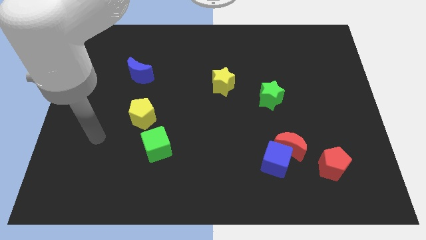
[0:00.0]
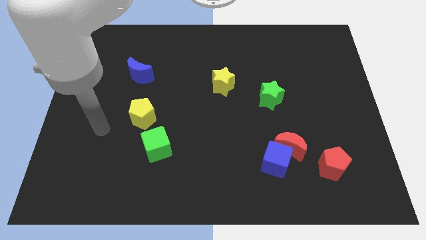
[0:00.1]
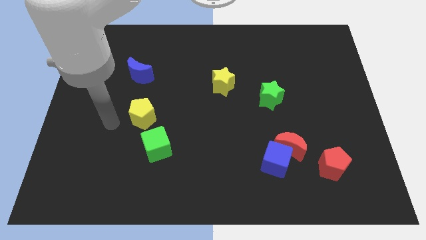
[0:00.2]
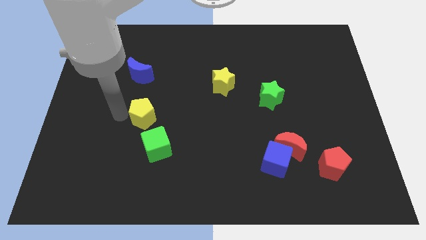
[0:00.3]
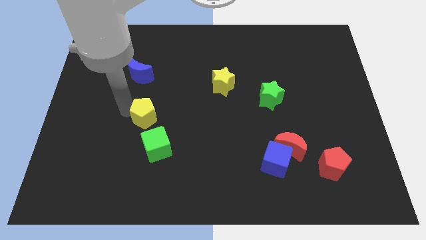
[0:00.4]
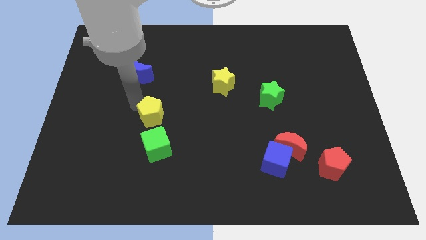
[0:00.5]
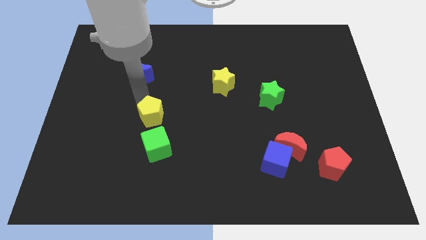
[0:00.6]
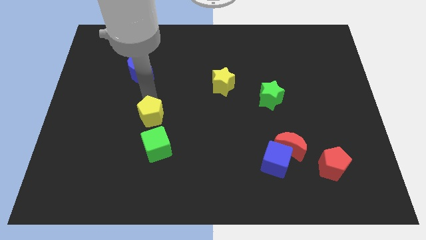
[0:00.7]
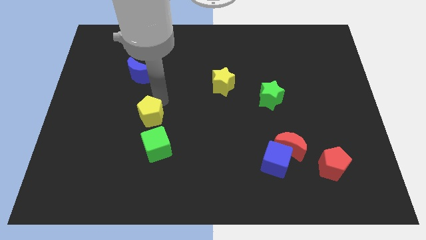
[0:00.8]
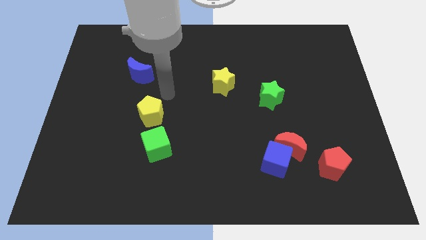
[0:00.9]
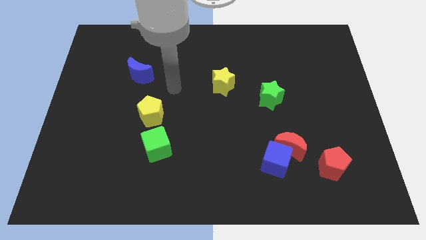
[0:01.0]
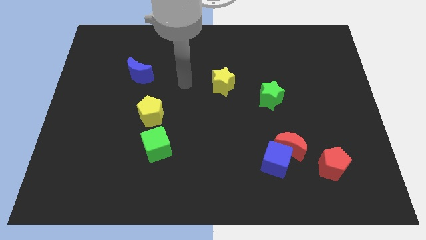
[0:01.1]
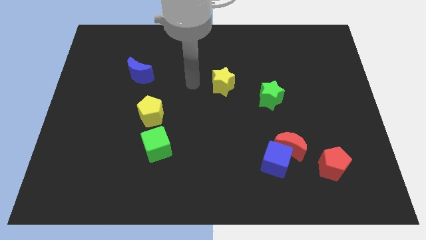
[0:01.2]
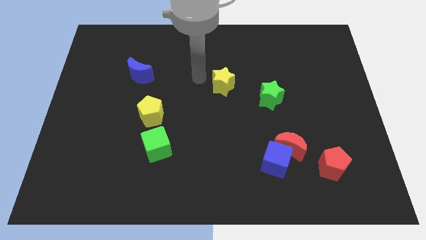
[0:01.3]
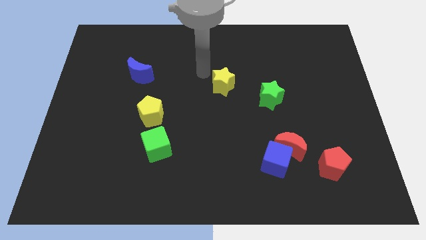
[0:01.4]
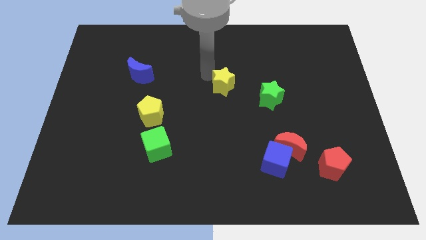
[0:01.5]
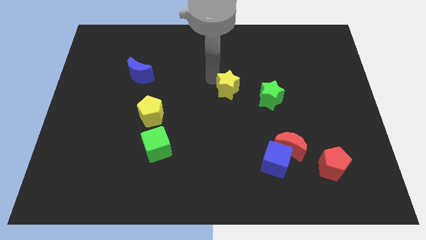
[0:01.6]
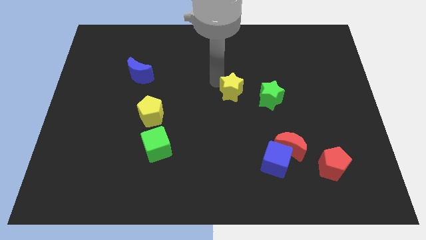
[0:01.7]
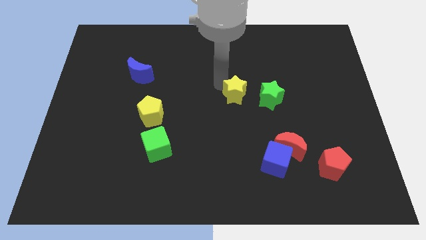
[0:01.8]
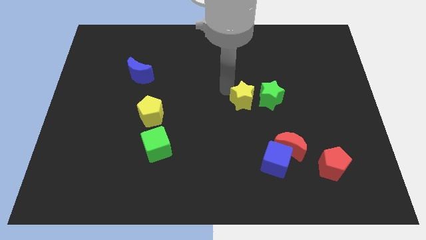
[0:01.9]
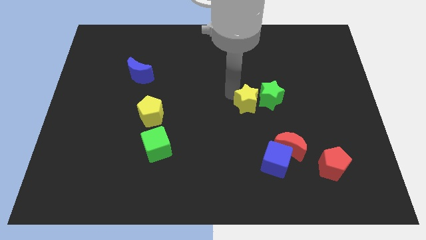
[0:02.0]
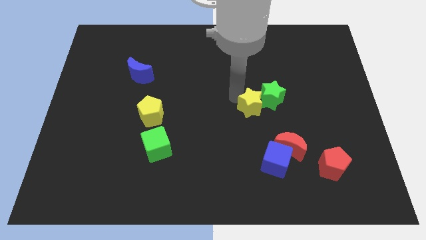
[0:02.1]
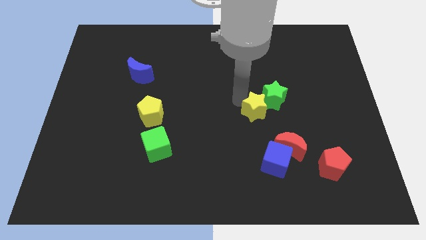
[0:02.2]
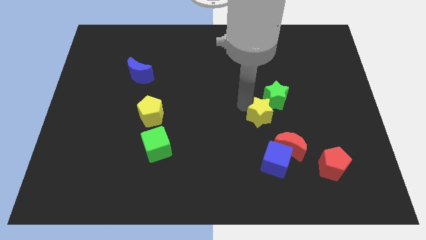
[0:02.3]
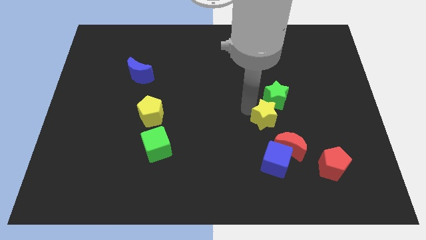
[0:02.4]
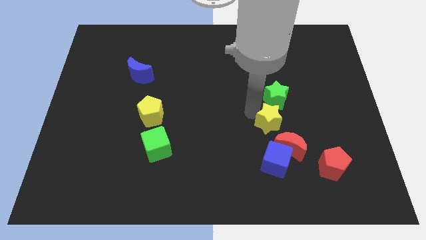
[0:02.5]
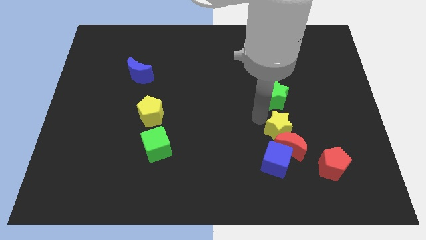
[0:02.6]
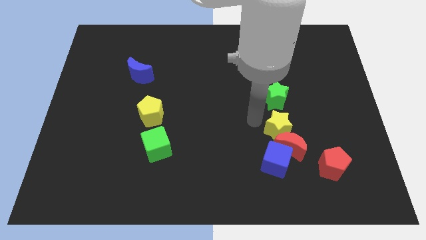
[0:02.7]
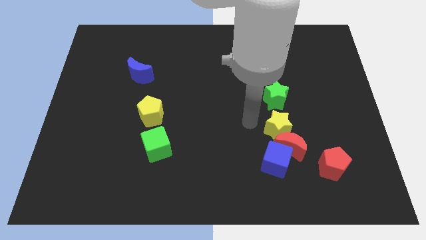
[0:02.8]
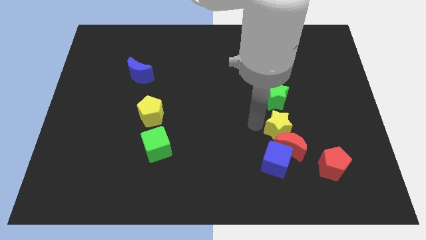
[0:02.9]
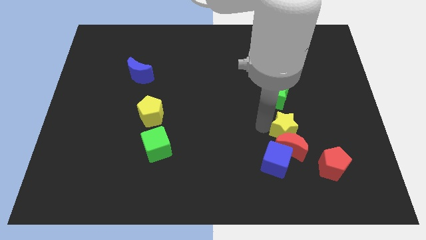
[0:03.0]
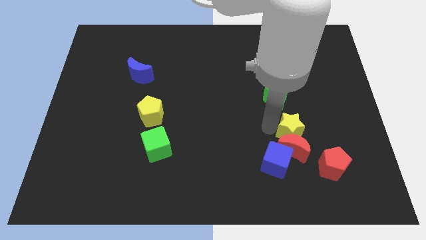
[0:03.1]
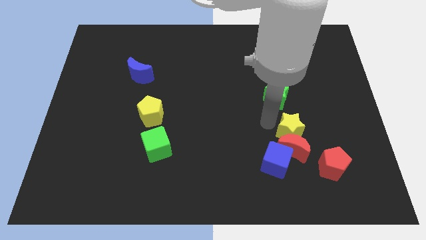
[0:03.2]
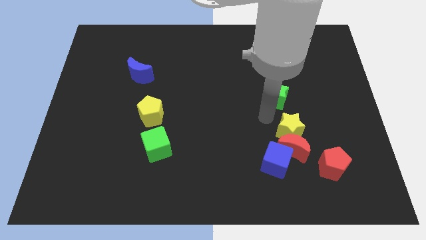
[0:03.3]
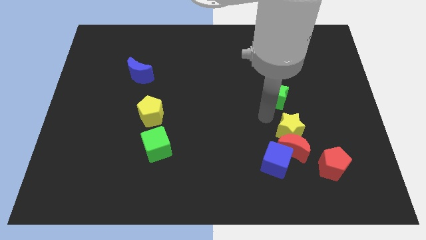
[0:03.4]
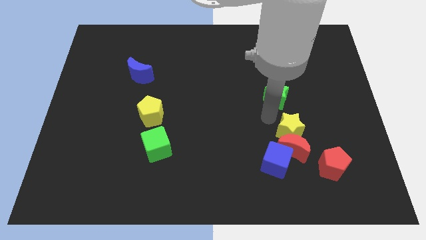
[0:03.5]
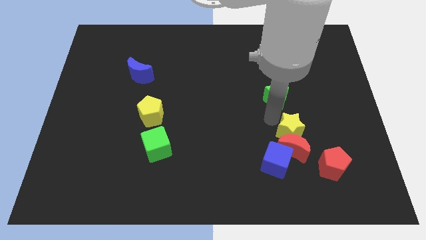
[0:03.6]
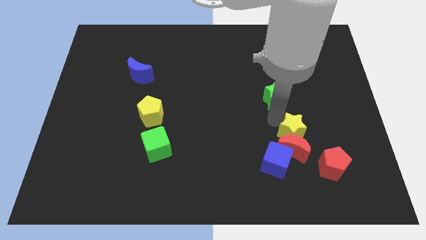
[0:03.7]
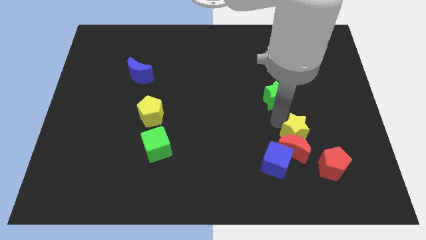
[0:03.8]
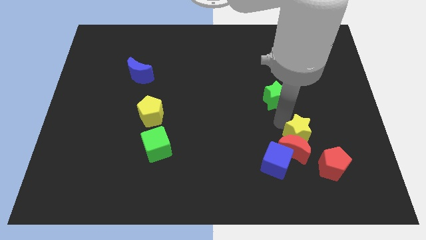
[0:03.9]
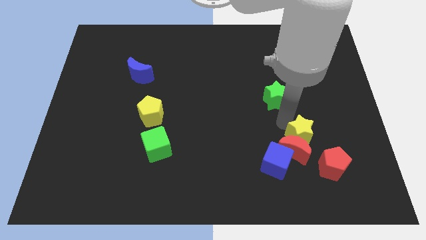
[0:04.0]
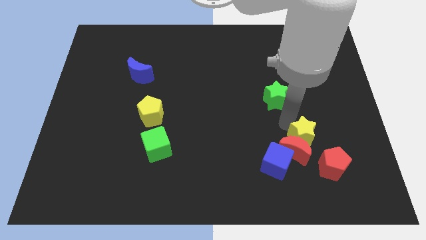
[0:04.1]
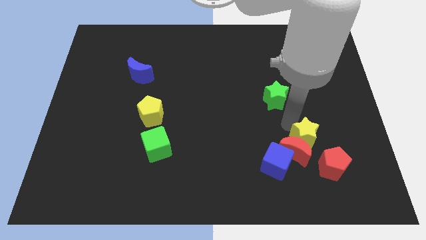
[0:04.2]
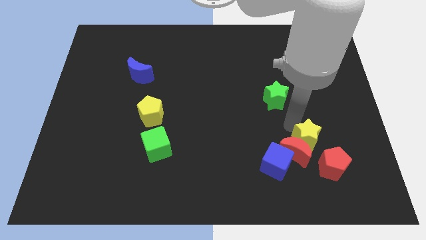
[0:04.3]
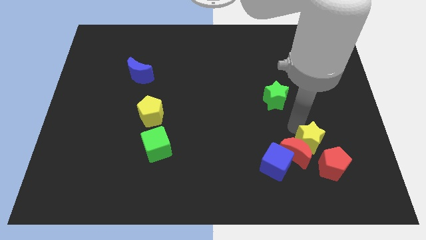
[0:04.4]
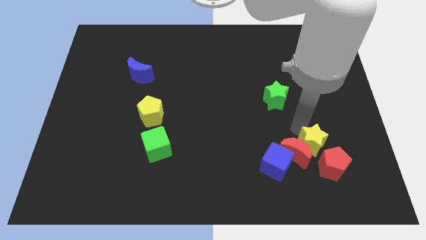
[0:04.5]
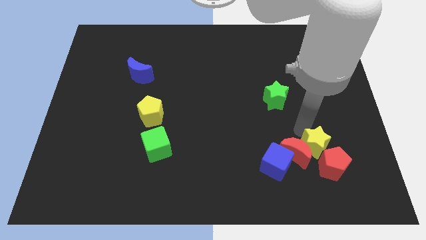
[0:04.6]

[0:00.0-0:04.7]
put the yellow star towards the red pentagon

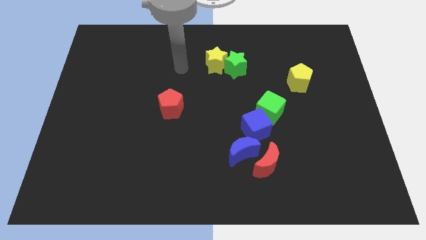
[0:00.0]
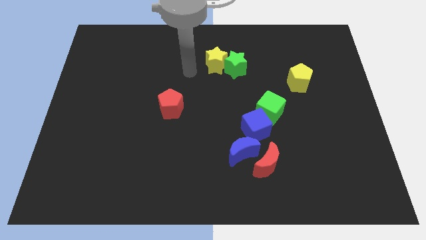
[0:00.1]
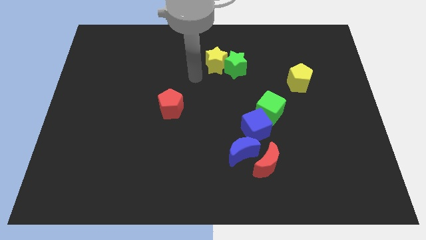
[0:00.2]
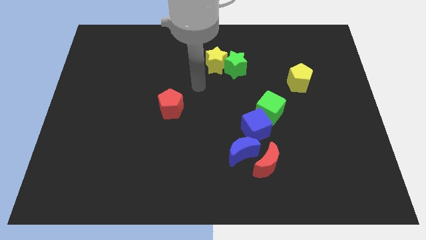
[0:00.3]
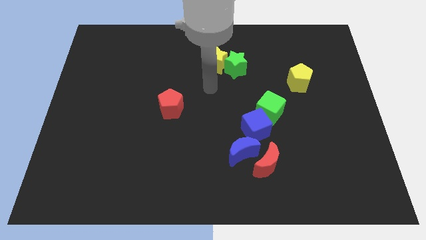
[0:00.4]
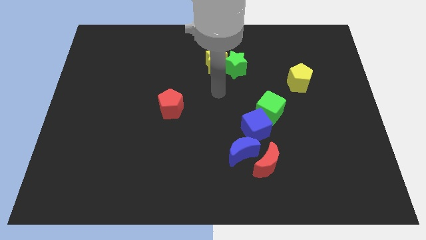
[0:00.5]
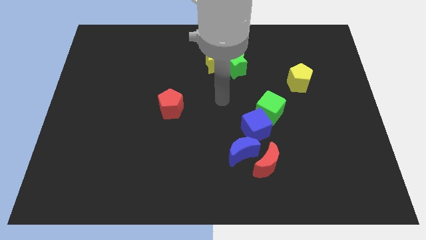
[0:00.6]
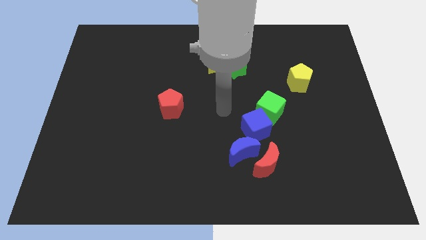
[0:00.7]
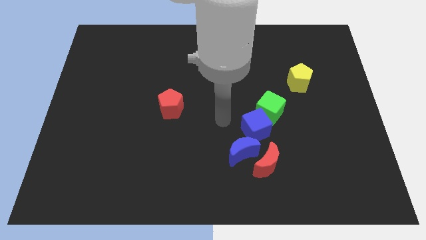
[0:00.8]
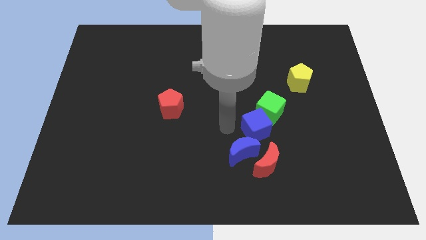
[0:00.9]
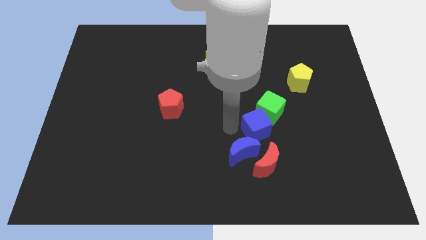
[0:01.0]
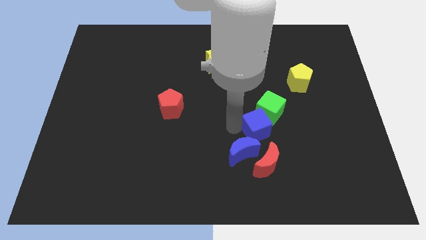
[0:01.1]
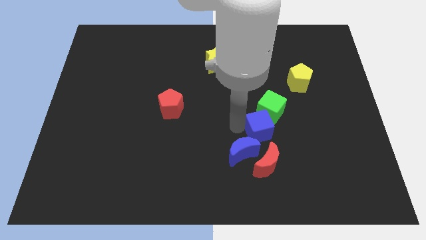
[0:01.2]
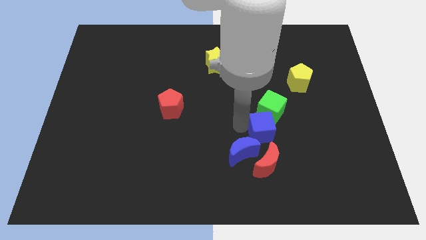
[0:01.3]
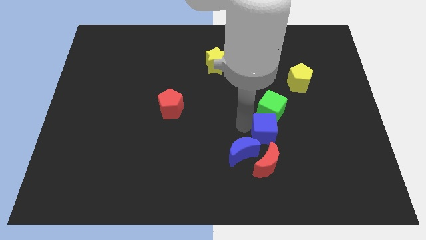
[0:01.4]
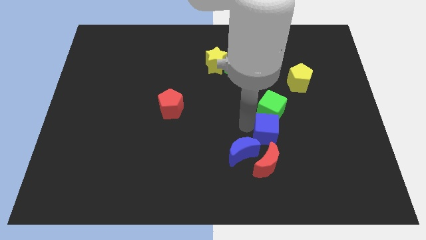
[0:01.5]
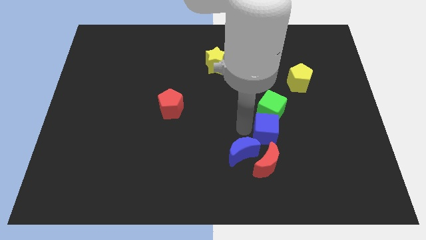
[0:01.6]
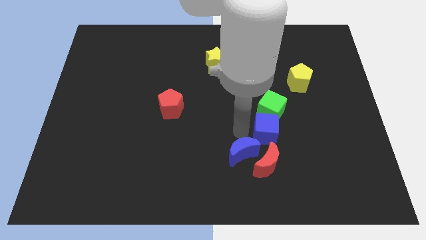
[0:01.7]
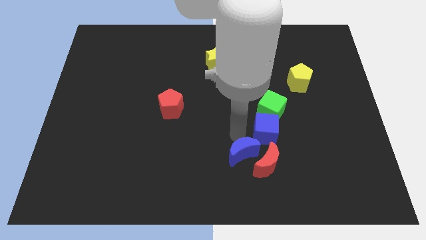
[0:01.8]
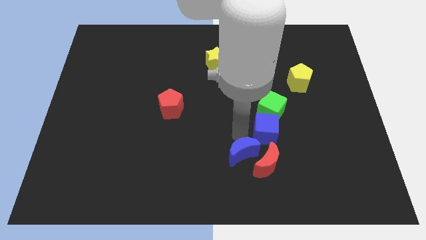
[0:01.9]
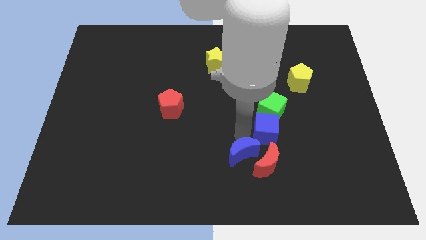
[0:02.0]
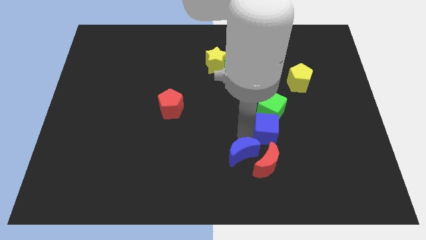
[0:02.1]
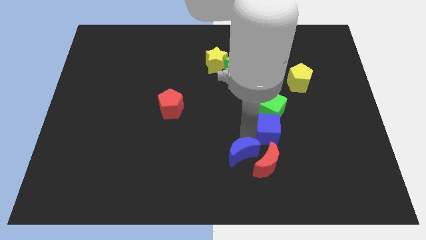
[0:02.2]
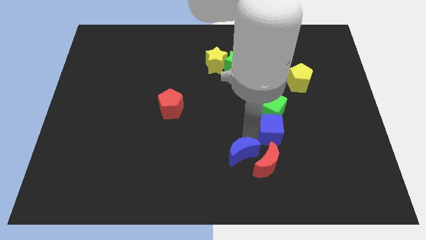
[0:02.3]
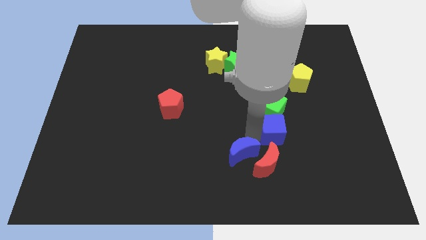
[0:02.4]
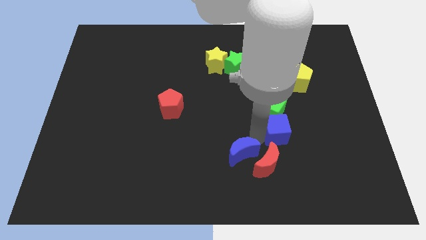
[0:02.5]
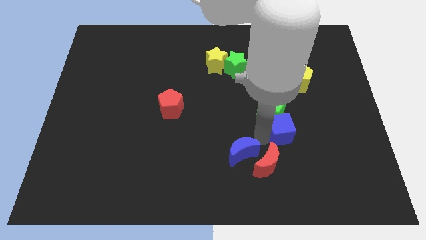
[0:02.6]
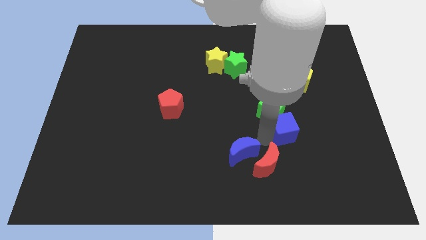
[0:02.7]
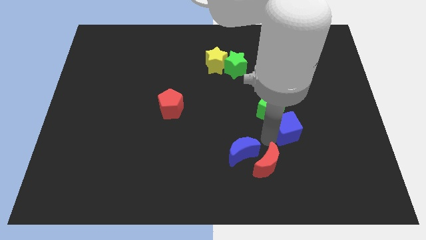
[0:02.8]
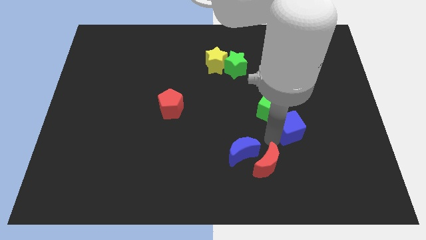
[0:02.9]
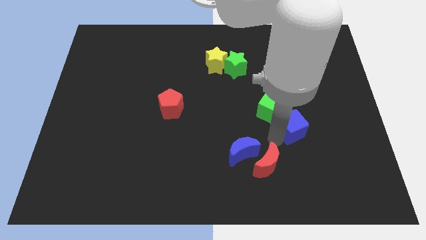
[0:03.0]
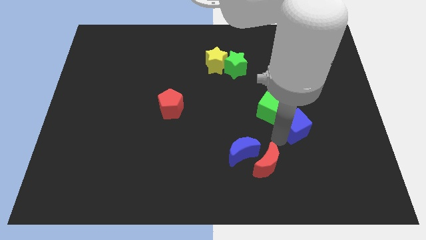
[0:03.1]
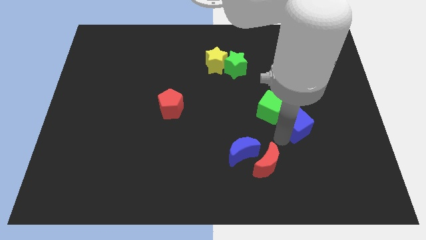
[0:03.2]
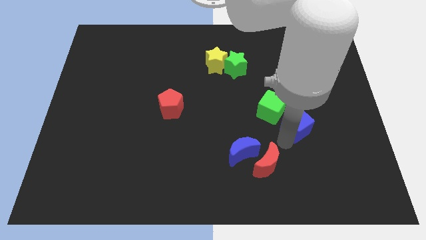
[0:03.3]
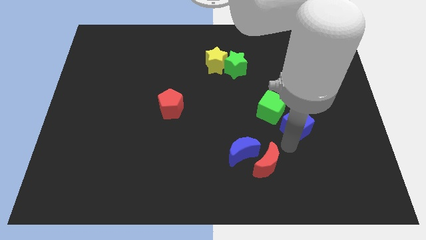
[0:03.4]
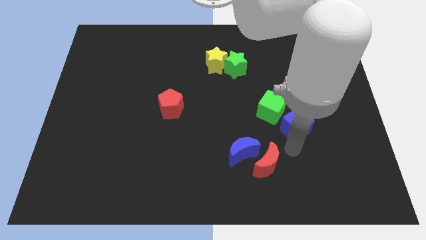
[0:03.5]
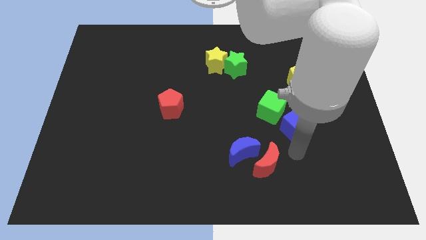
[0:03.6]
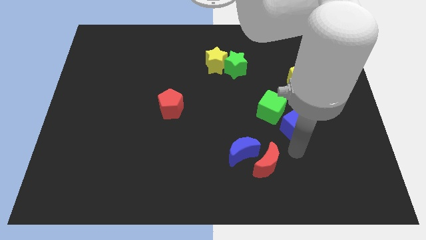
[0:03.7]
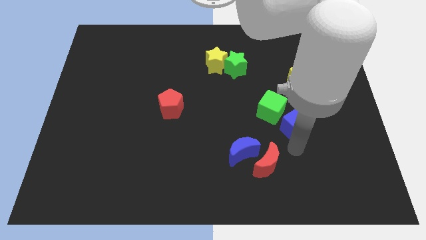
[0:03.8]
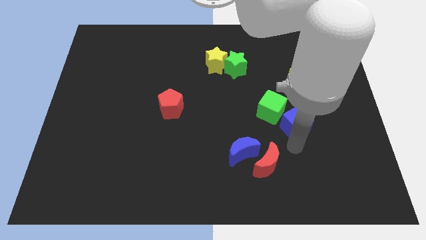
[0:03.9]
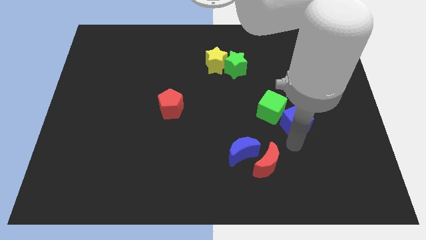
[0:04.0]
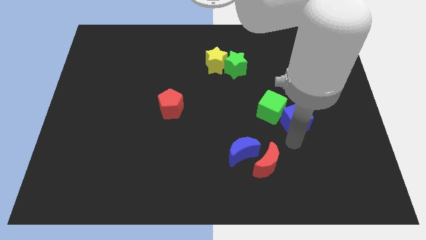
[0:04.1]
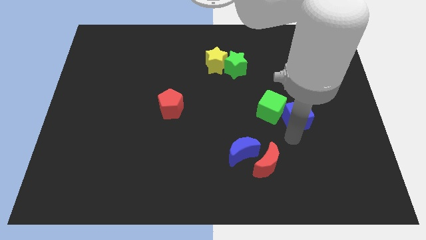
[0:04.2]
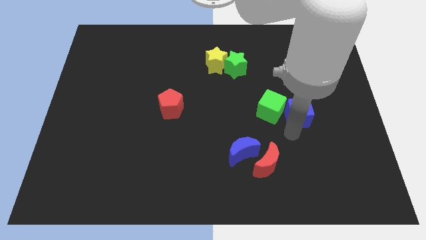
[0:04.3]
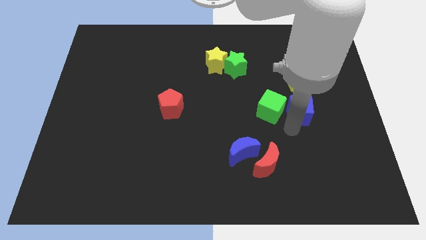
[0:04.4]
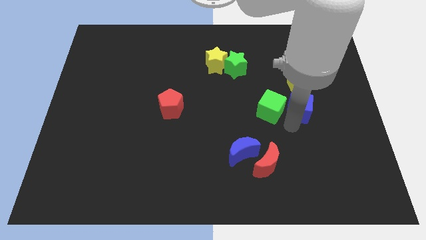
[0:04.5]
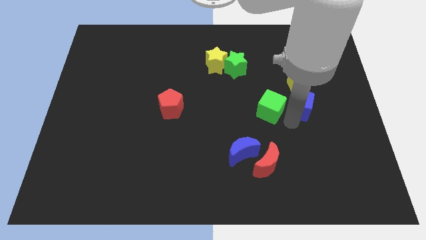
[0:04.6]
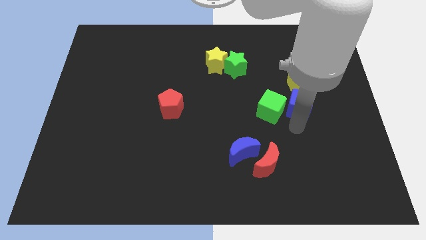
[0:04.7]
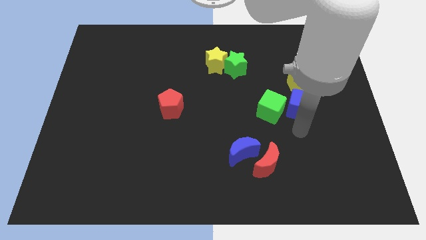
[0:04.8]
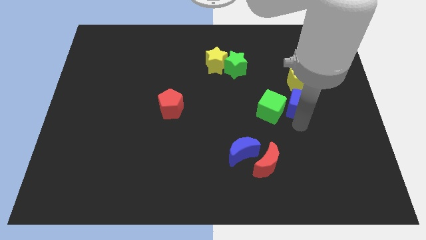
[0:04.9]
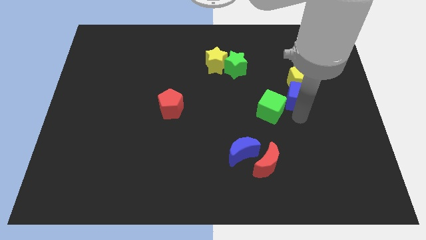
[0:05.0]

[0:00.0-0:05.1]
put the blue cube close to the yellow pentagon
